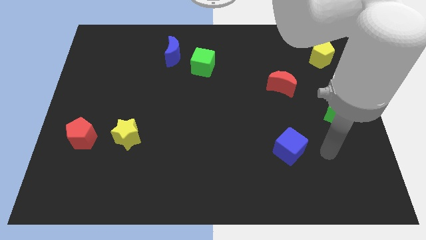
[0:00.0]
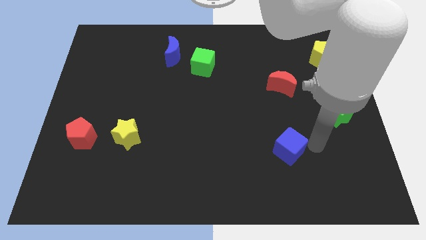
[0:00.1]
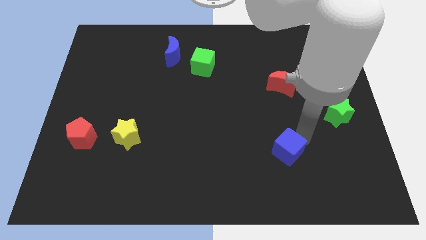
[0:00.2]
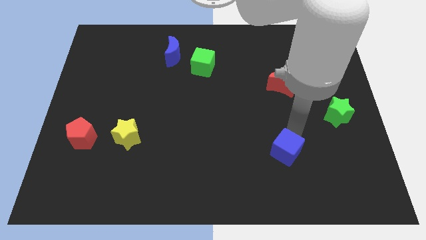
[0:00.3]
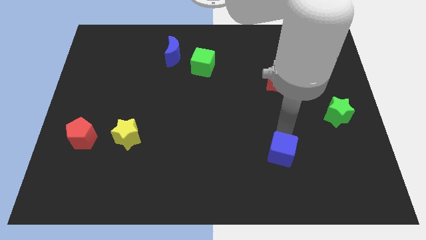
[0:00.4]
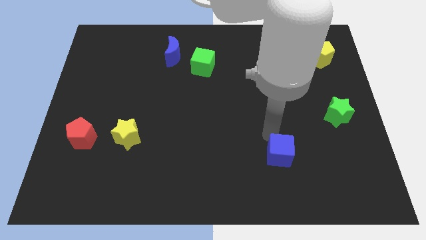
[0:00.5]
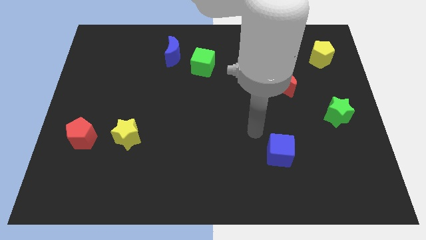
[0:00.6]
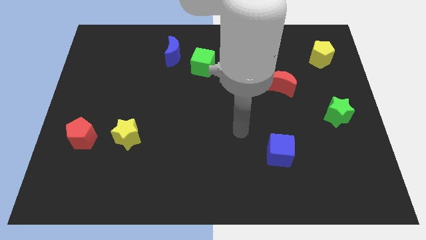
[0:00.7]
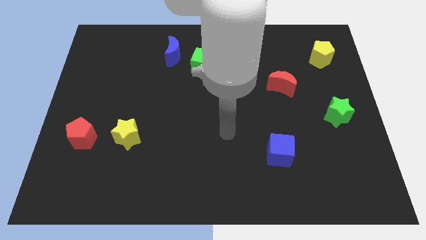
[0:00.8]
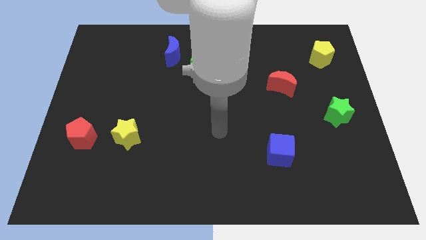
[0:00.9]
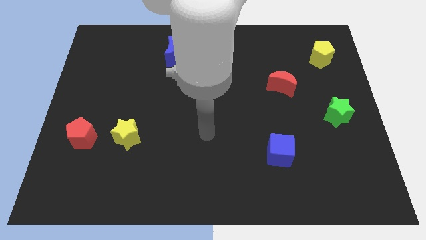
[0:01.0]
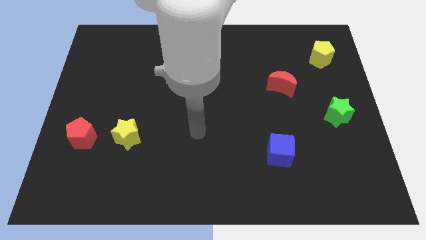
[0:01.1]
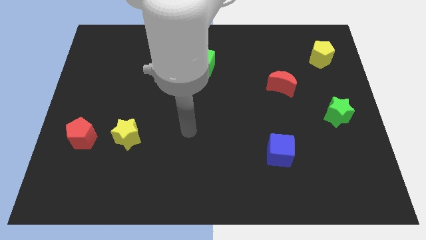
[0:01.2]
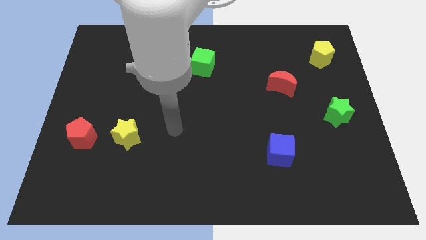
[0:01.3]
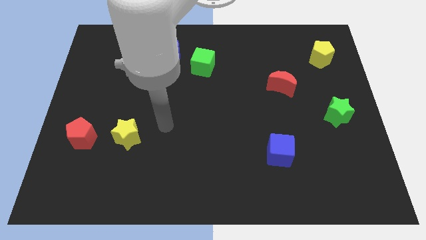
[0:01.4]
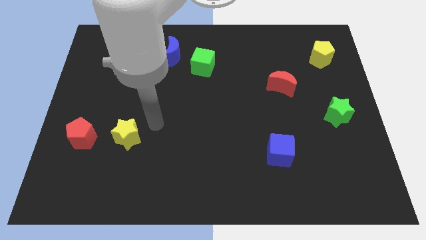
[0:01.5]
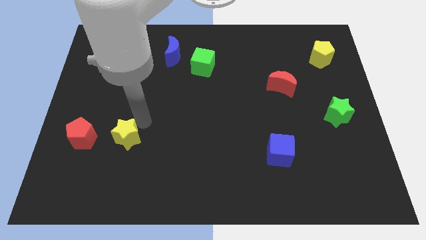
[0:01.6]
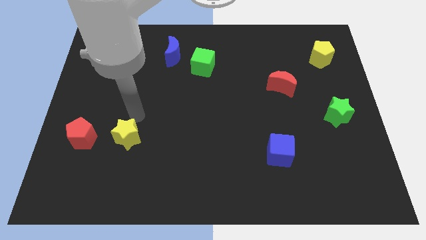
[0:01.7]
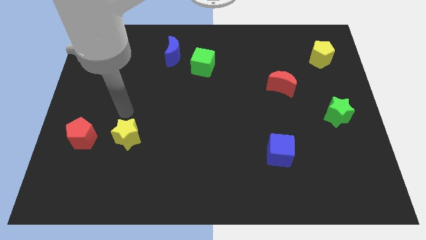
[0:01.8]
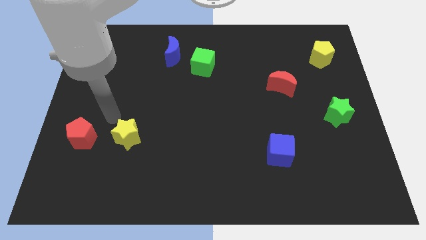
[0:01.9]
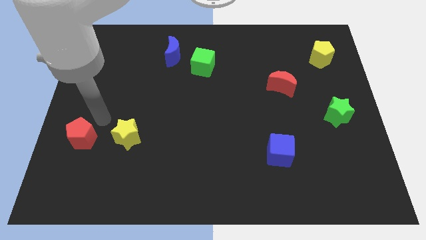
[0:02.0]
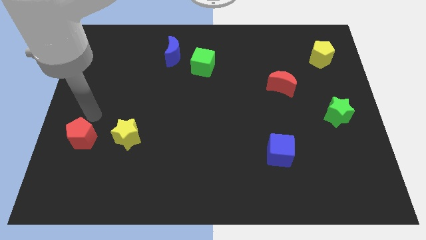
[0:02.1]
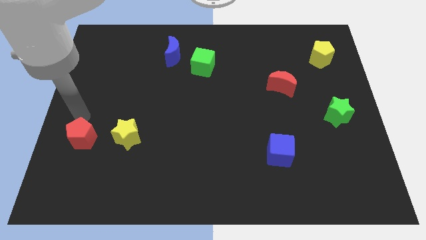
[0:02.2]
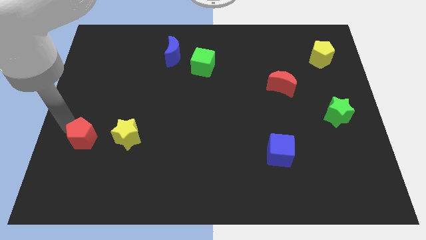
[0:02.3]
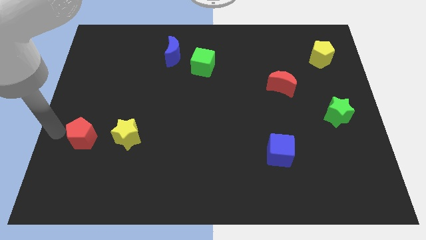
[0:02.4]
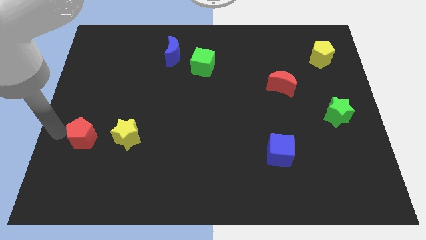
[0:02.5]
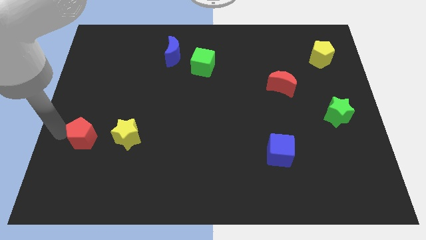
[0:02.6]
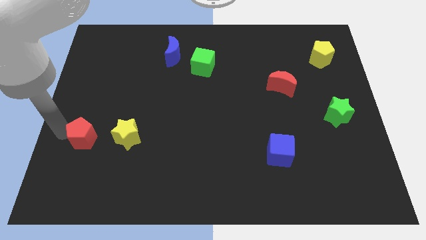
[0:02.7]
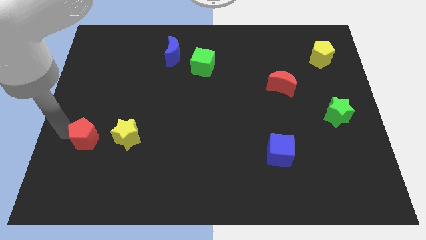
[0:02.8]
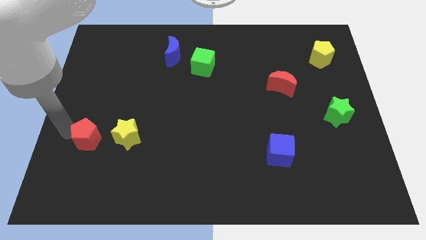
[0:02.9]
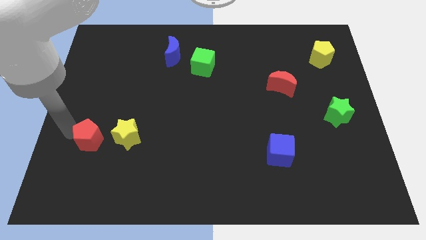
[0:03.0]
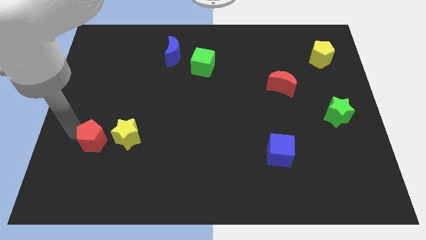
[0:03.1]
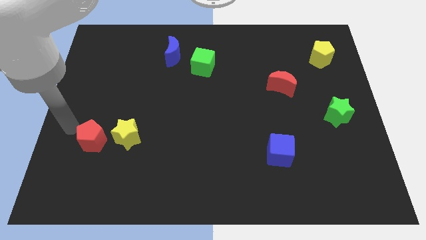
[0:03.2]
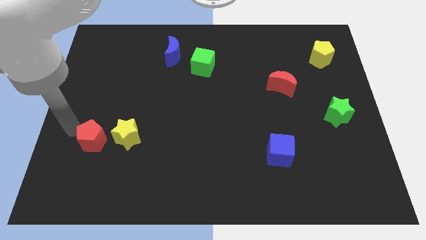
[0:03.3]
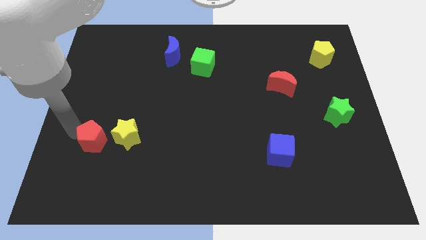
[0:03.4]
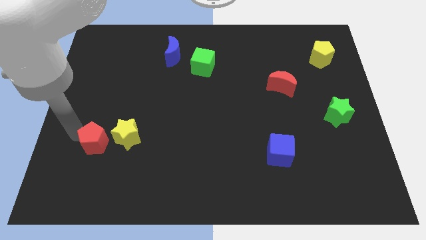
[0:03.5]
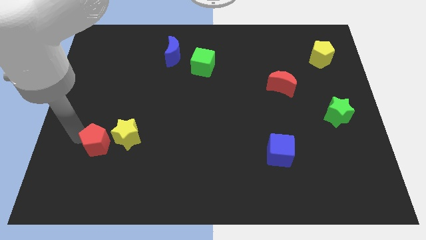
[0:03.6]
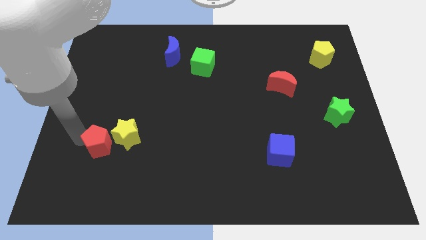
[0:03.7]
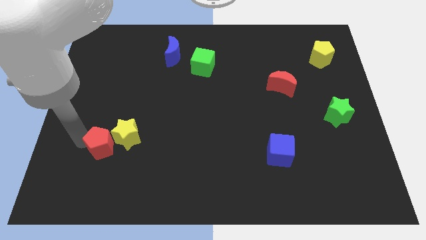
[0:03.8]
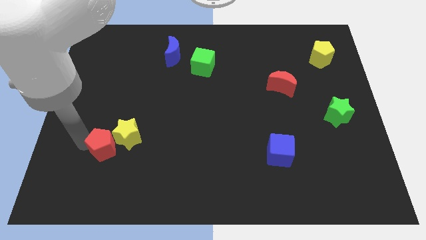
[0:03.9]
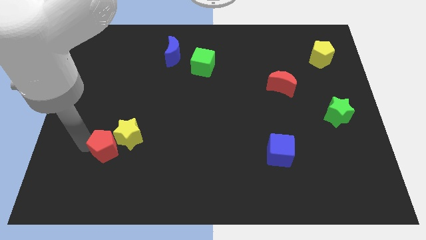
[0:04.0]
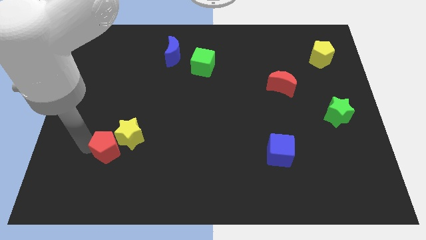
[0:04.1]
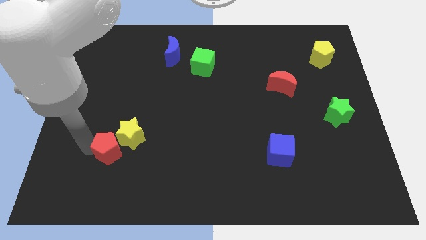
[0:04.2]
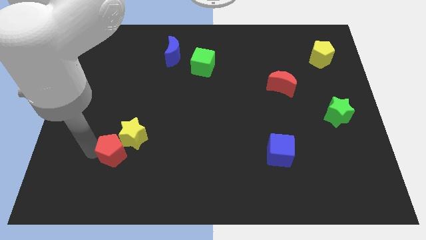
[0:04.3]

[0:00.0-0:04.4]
move the red pentagon somewhat right

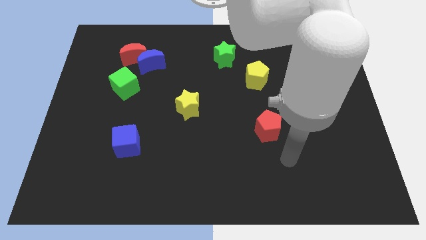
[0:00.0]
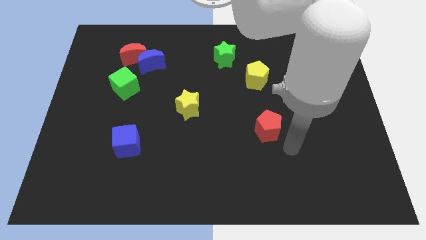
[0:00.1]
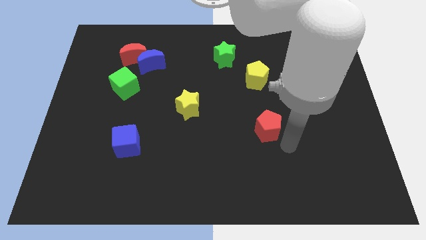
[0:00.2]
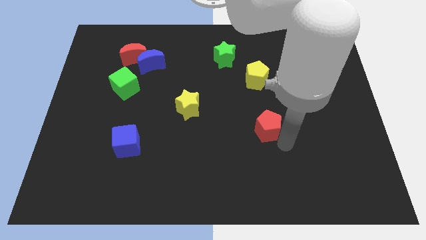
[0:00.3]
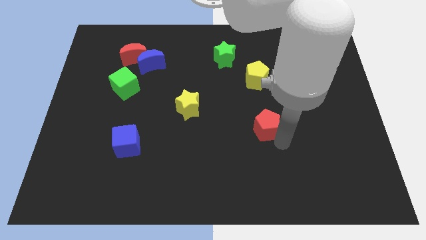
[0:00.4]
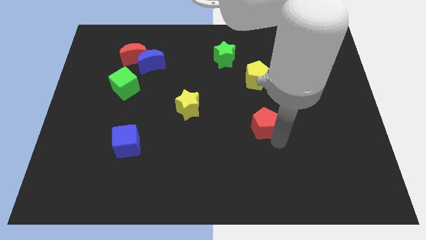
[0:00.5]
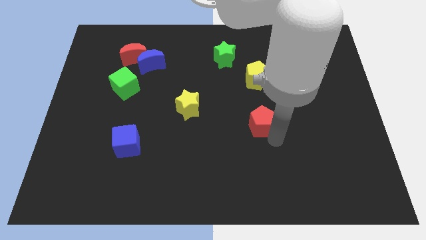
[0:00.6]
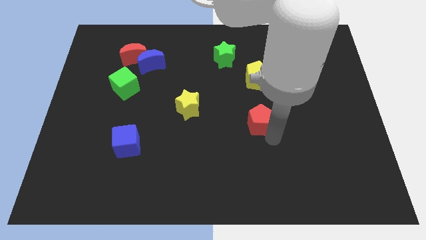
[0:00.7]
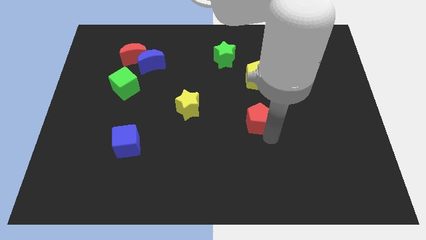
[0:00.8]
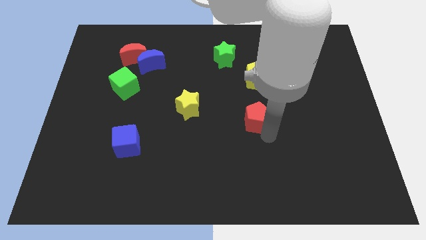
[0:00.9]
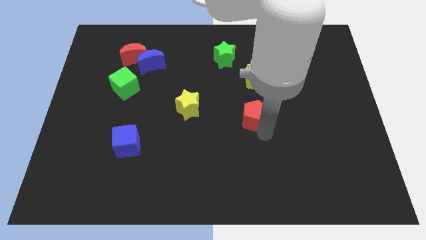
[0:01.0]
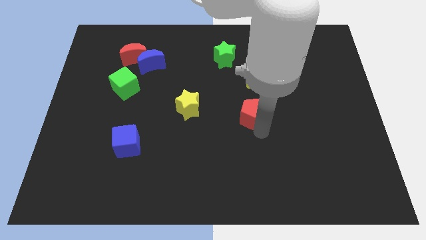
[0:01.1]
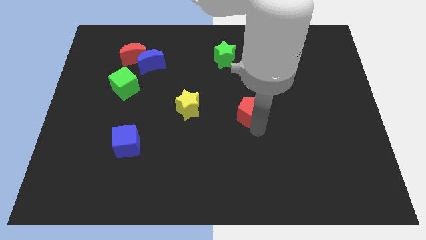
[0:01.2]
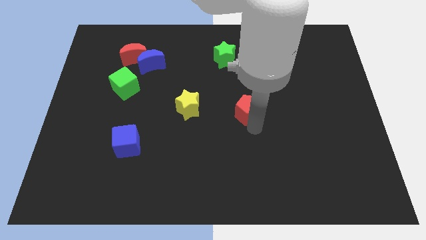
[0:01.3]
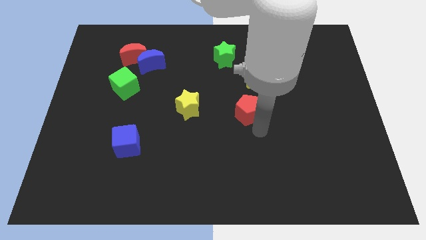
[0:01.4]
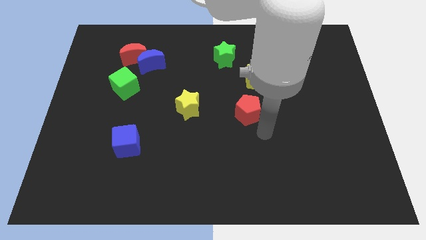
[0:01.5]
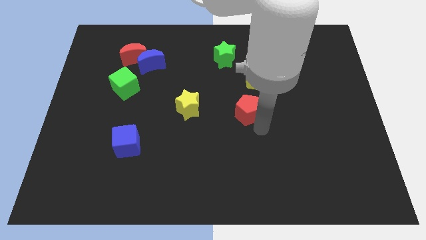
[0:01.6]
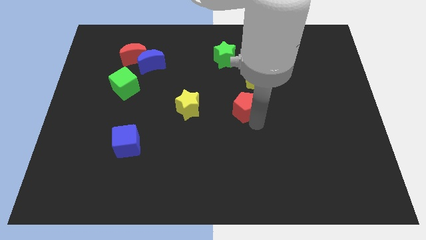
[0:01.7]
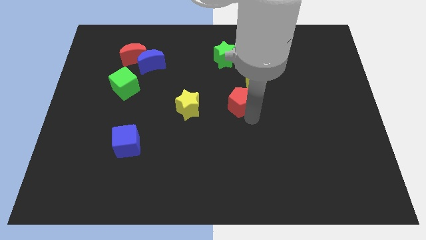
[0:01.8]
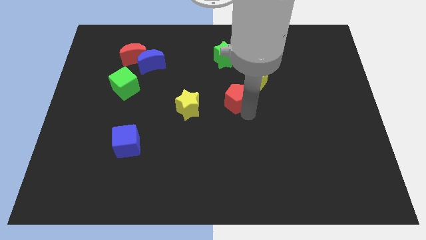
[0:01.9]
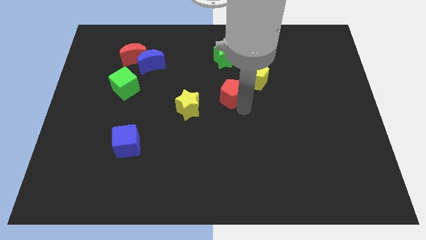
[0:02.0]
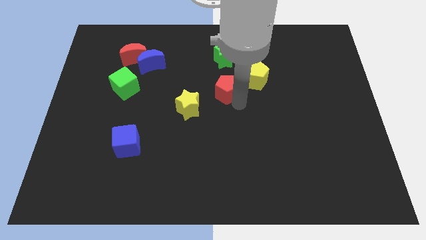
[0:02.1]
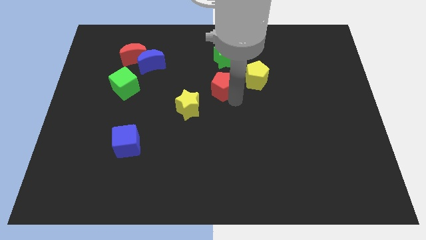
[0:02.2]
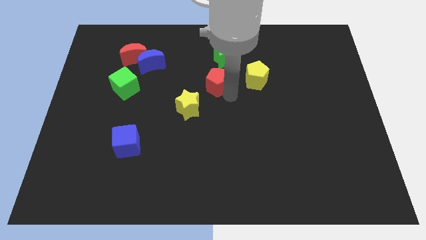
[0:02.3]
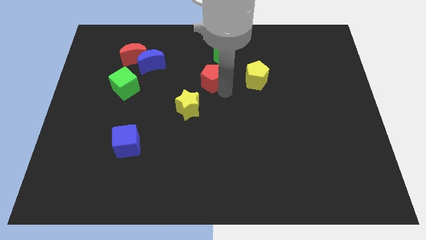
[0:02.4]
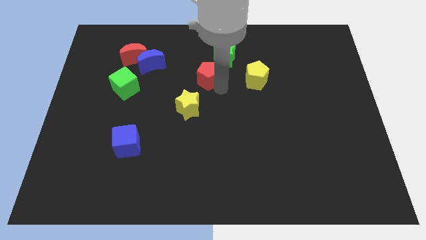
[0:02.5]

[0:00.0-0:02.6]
slide the red pentagon up and then left

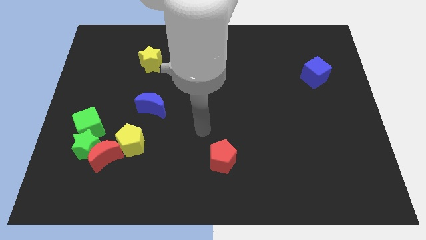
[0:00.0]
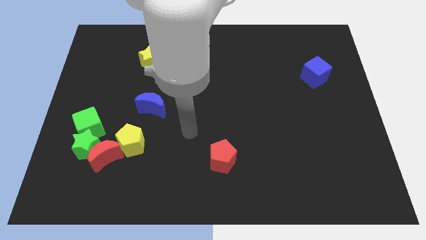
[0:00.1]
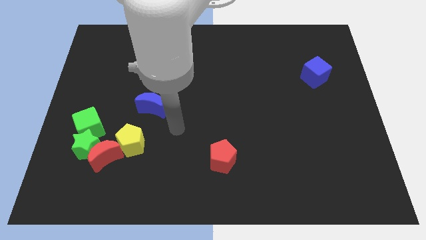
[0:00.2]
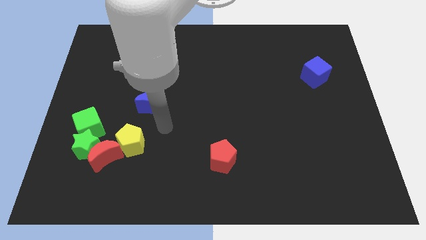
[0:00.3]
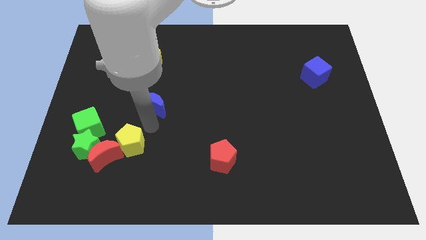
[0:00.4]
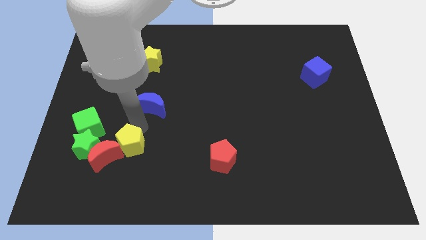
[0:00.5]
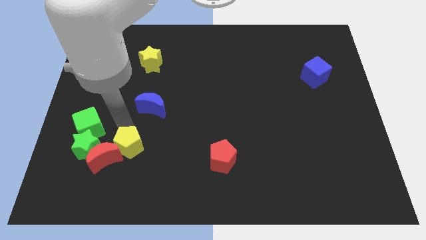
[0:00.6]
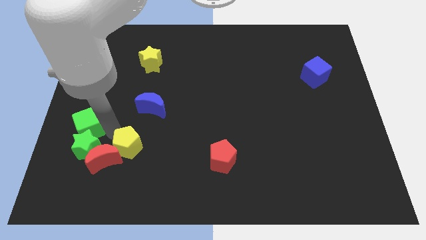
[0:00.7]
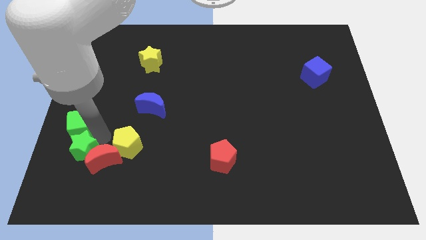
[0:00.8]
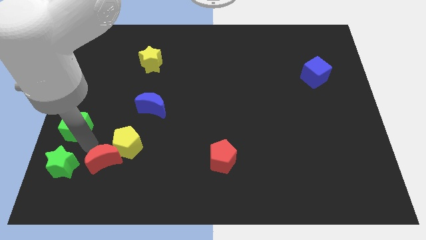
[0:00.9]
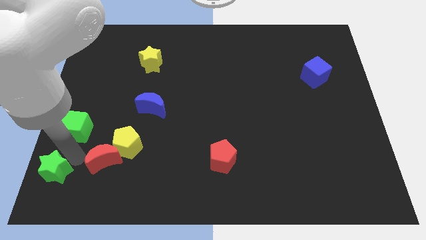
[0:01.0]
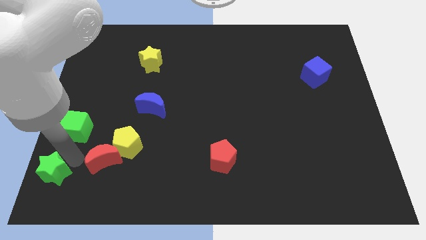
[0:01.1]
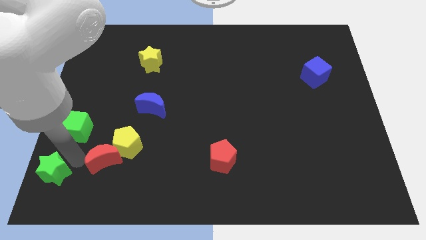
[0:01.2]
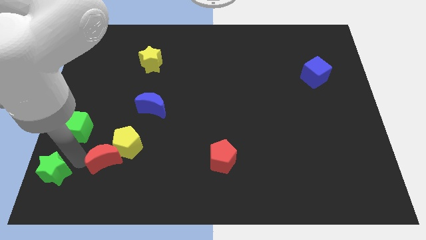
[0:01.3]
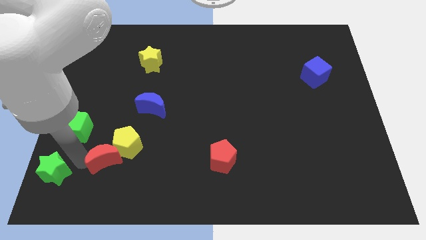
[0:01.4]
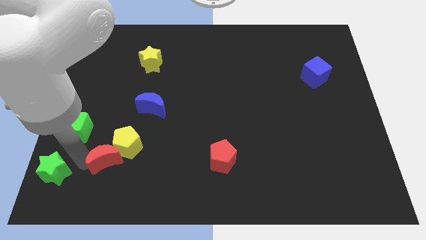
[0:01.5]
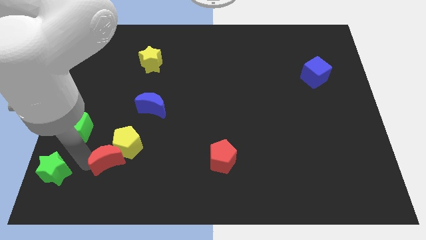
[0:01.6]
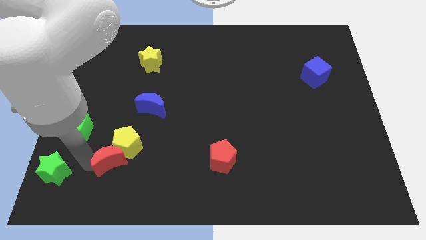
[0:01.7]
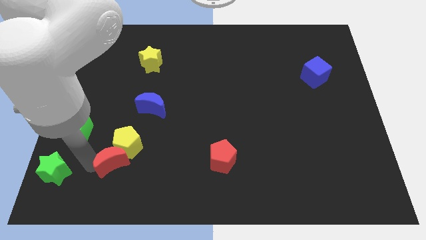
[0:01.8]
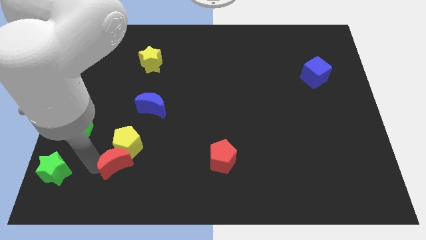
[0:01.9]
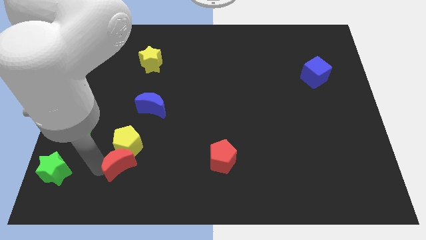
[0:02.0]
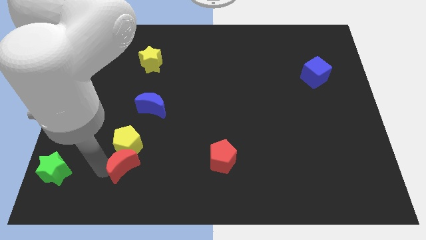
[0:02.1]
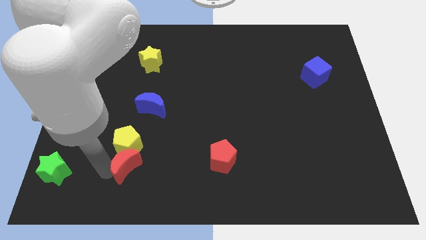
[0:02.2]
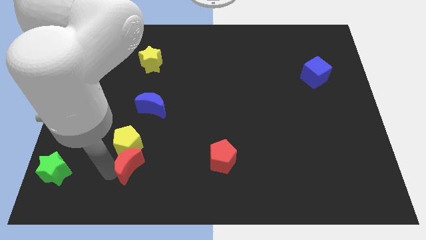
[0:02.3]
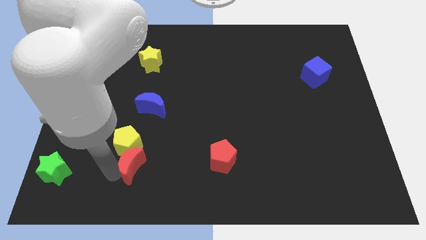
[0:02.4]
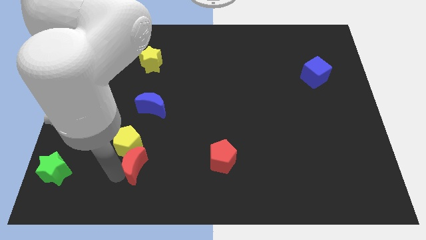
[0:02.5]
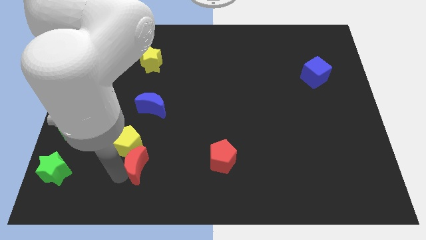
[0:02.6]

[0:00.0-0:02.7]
slide the red moon a bit right
